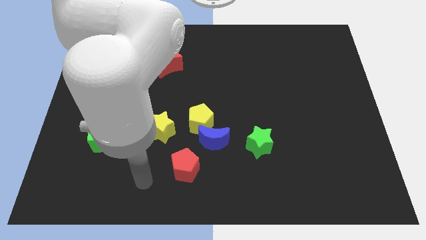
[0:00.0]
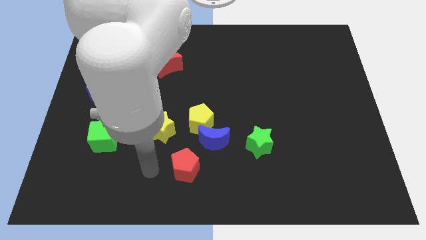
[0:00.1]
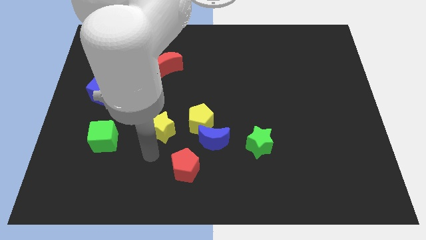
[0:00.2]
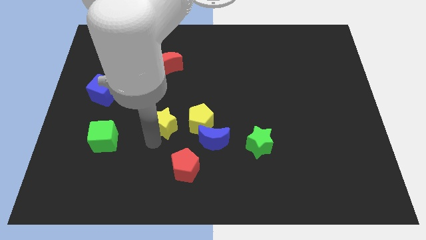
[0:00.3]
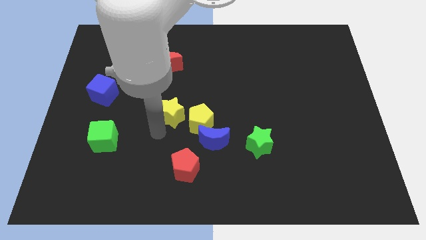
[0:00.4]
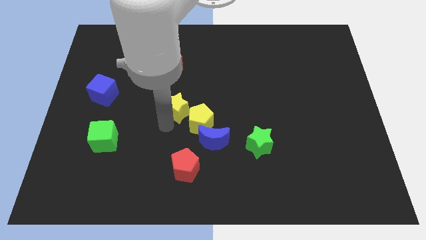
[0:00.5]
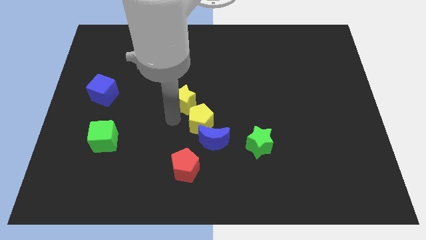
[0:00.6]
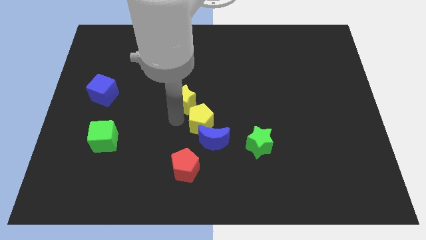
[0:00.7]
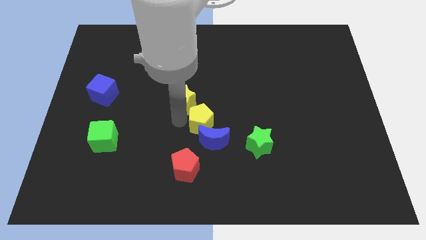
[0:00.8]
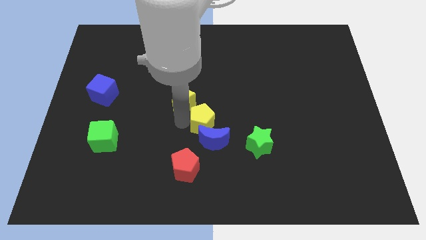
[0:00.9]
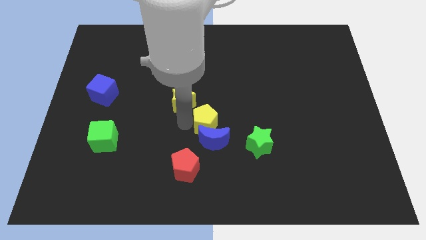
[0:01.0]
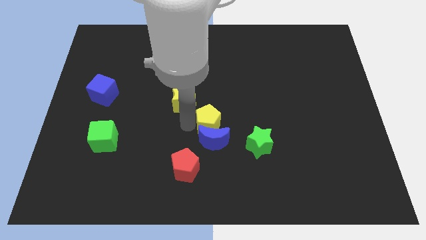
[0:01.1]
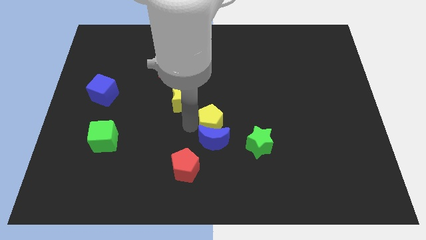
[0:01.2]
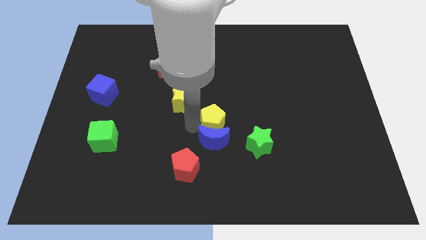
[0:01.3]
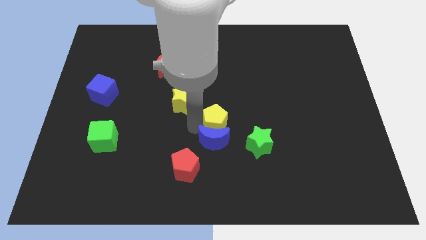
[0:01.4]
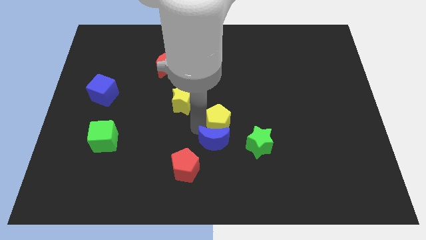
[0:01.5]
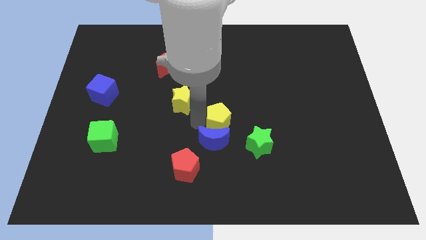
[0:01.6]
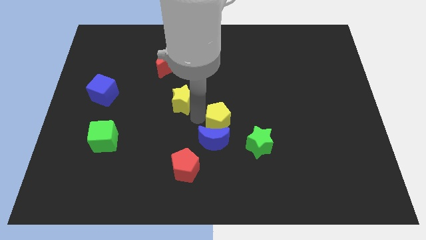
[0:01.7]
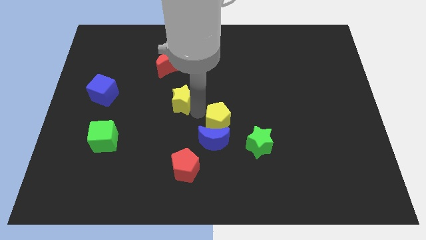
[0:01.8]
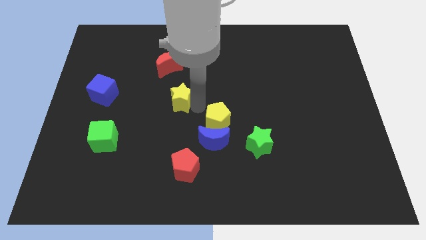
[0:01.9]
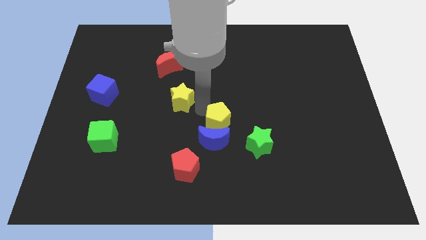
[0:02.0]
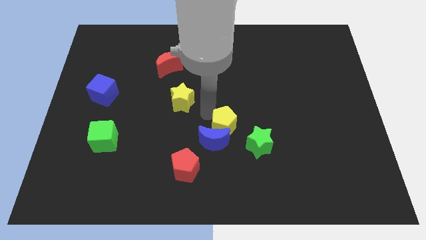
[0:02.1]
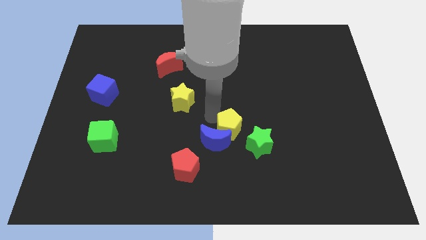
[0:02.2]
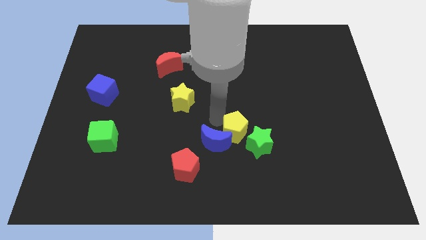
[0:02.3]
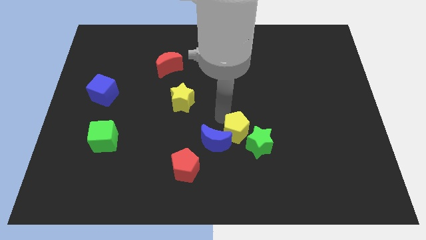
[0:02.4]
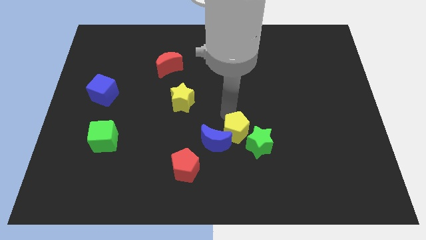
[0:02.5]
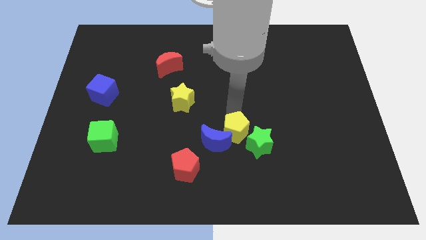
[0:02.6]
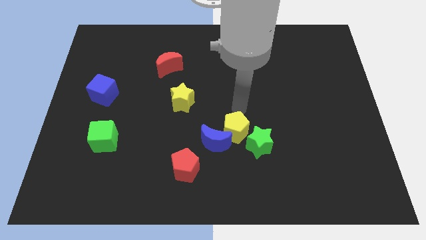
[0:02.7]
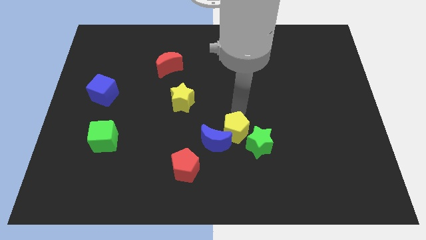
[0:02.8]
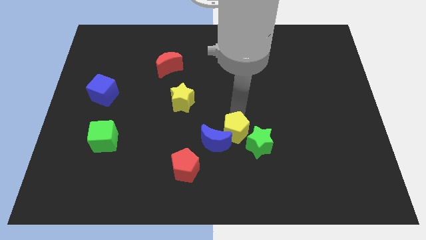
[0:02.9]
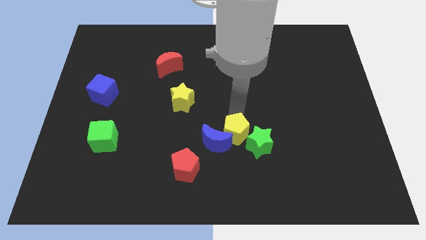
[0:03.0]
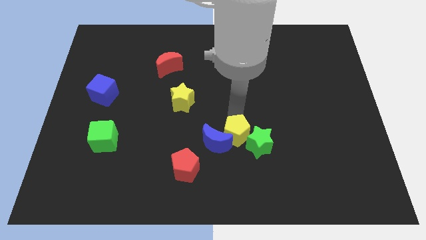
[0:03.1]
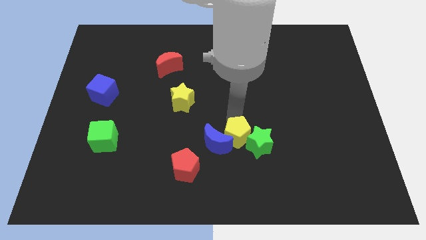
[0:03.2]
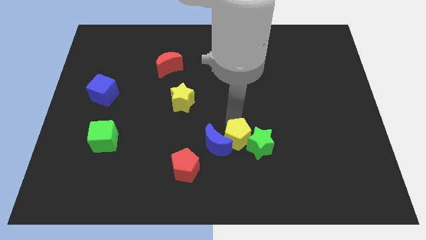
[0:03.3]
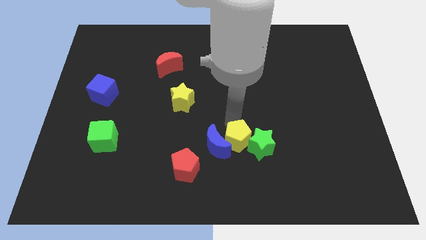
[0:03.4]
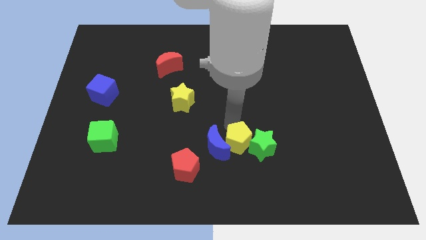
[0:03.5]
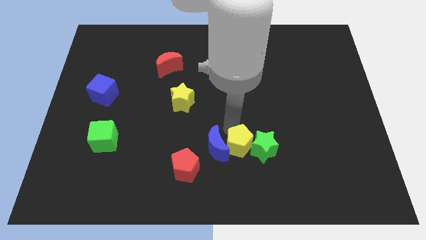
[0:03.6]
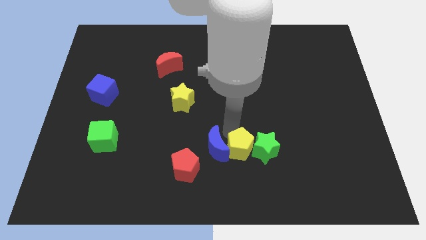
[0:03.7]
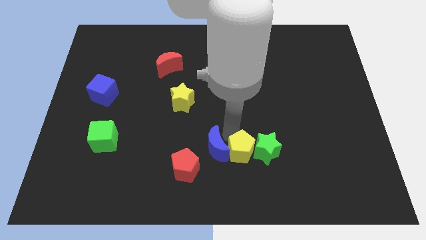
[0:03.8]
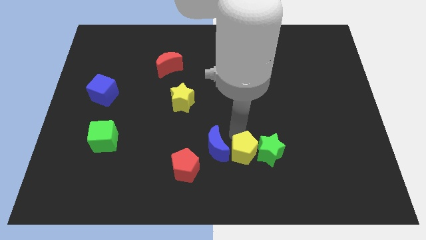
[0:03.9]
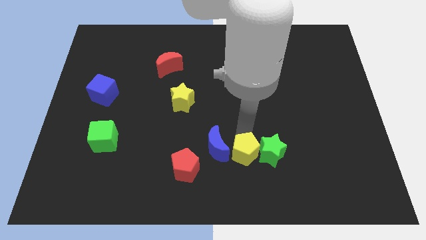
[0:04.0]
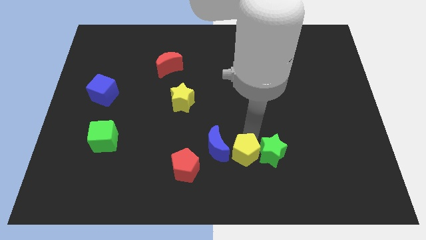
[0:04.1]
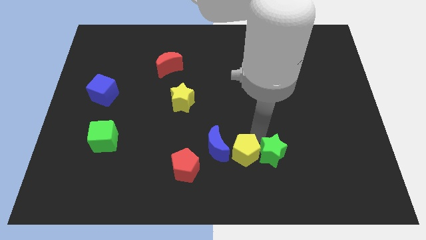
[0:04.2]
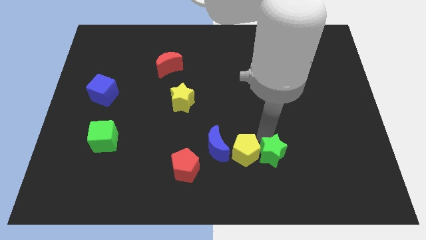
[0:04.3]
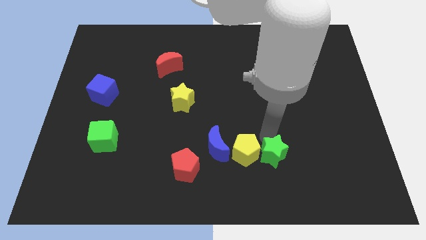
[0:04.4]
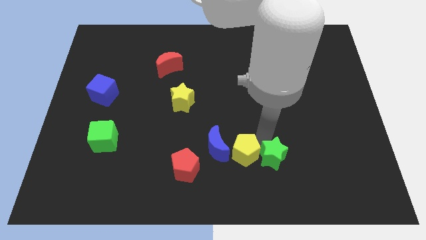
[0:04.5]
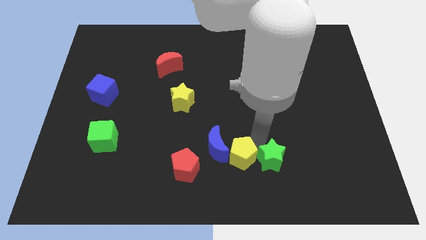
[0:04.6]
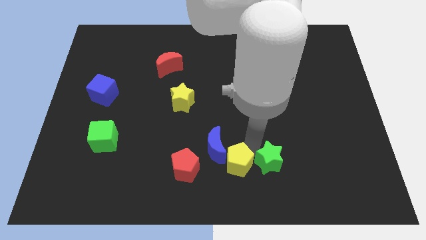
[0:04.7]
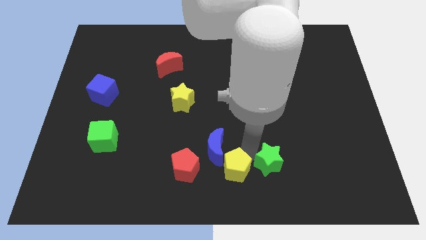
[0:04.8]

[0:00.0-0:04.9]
slide the yellow pentagon below the blue moon

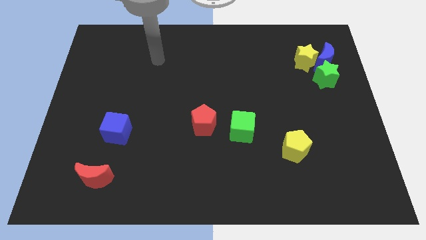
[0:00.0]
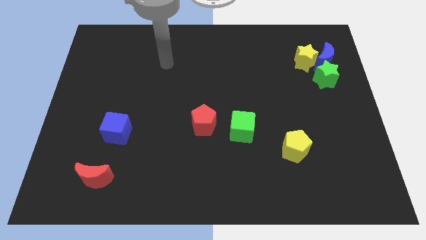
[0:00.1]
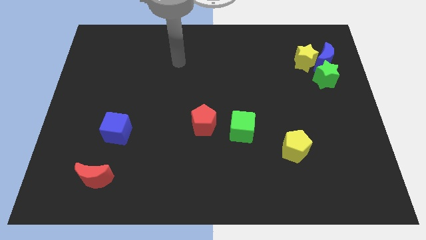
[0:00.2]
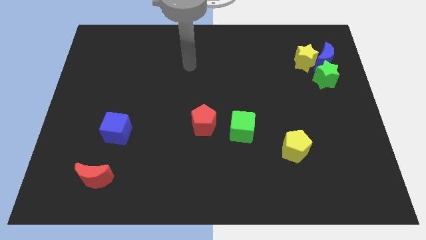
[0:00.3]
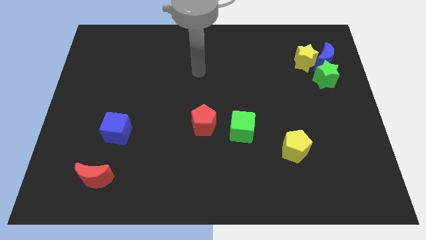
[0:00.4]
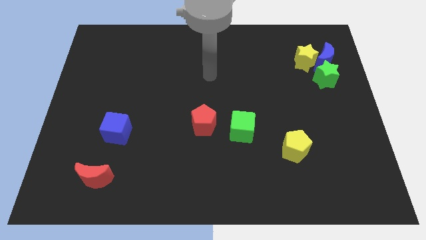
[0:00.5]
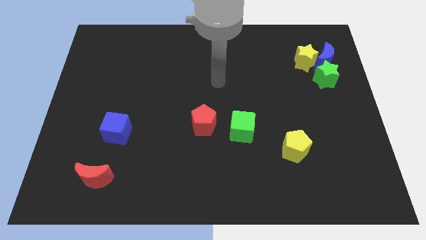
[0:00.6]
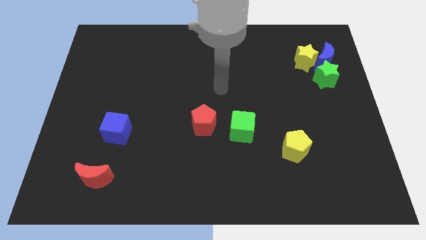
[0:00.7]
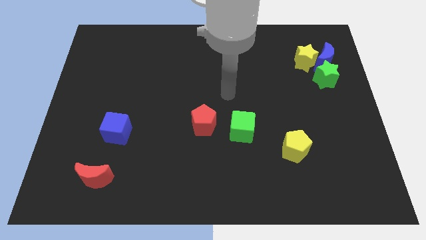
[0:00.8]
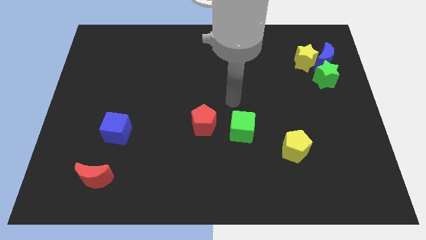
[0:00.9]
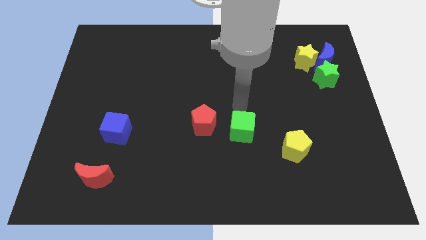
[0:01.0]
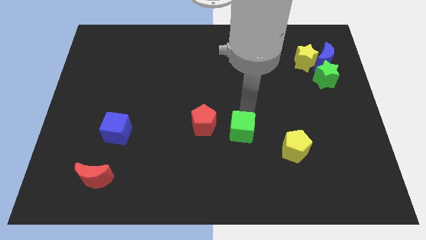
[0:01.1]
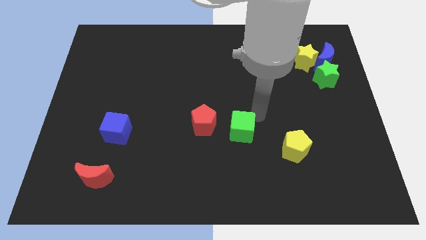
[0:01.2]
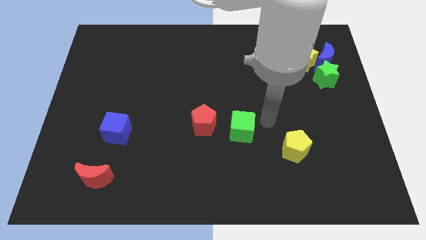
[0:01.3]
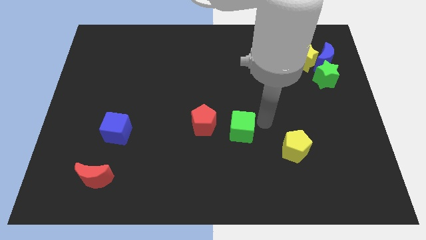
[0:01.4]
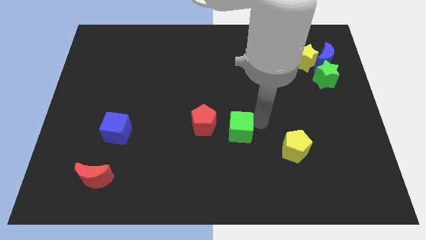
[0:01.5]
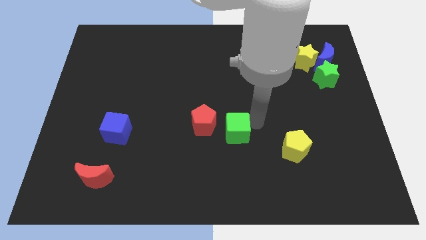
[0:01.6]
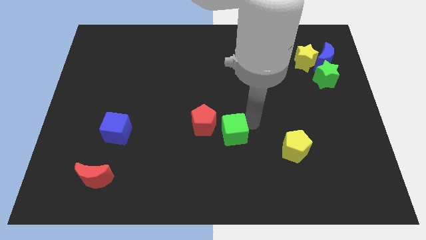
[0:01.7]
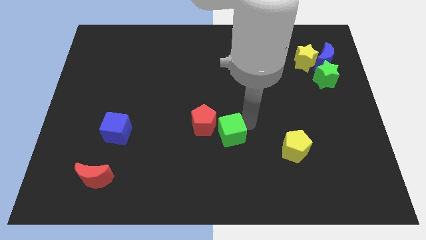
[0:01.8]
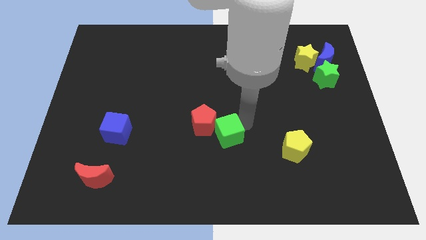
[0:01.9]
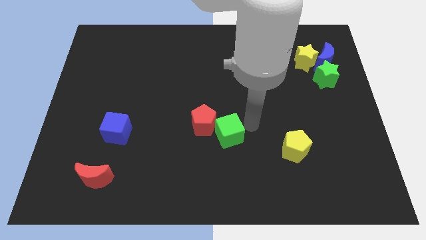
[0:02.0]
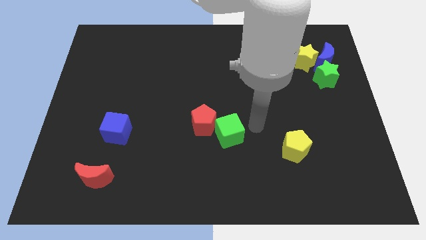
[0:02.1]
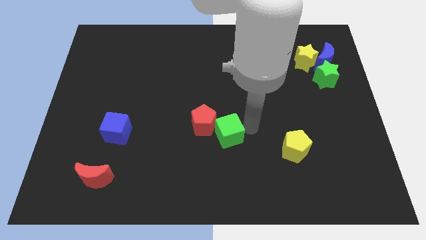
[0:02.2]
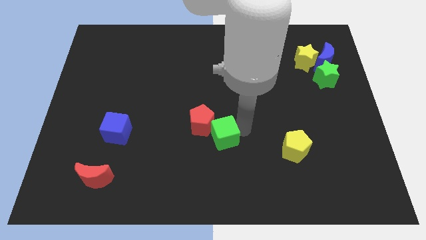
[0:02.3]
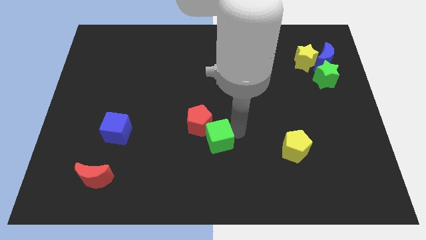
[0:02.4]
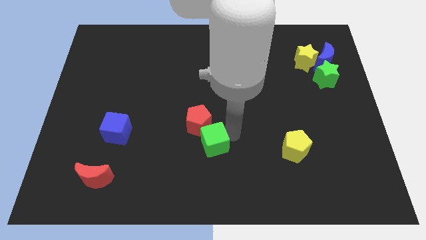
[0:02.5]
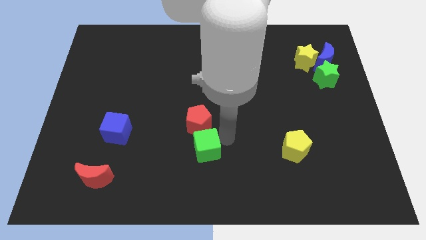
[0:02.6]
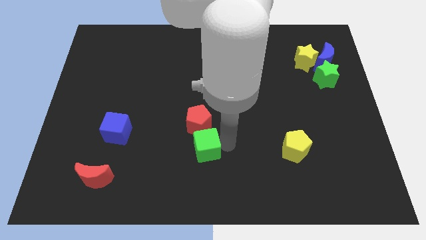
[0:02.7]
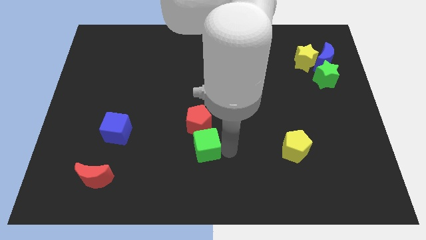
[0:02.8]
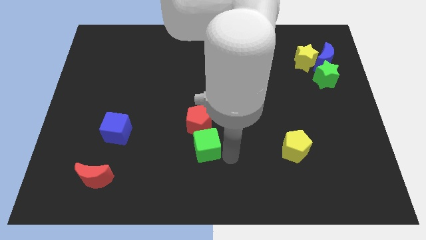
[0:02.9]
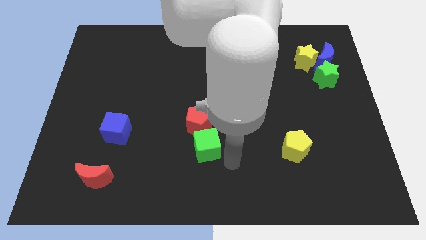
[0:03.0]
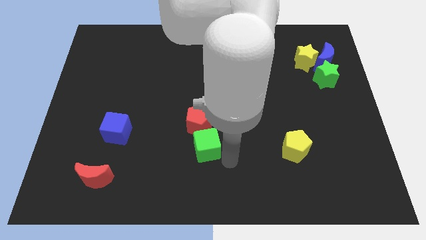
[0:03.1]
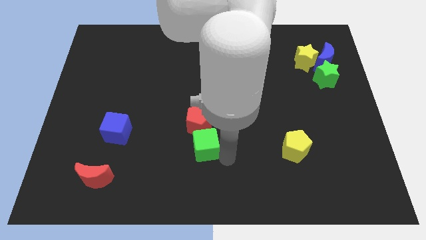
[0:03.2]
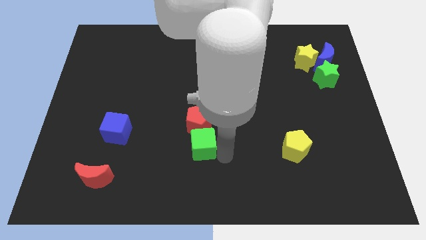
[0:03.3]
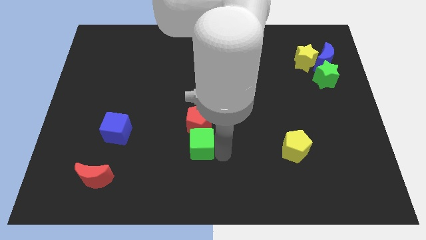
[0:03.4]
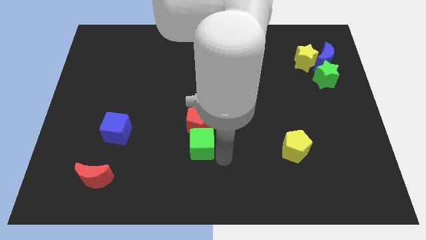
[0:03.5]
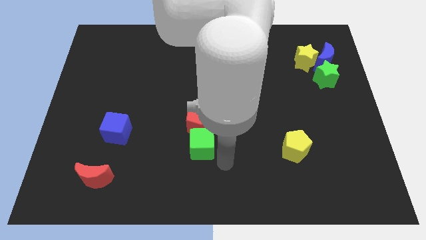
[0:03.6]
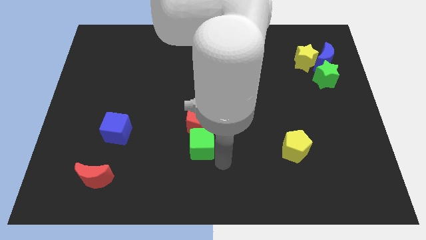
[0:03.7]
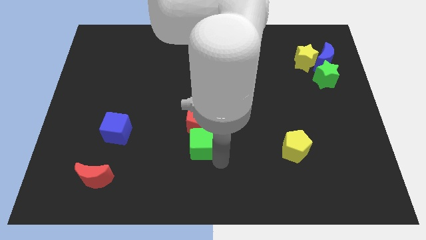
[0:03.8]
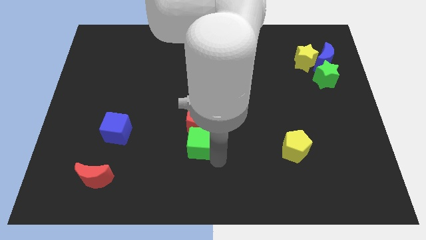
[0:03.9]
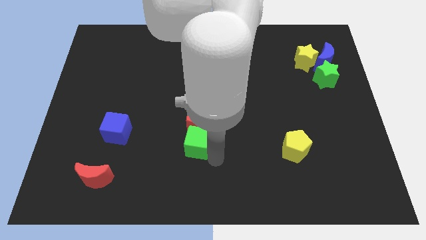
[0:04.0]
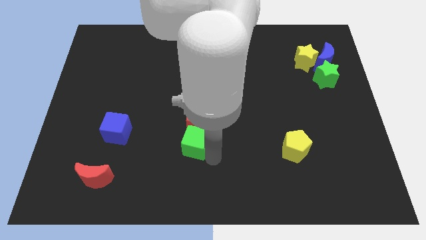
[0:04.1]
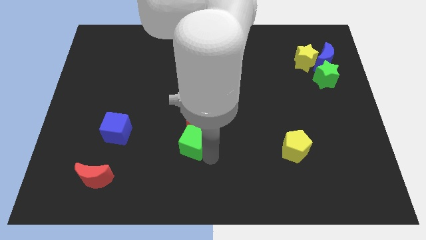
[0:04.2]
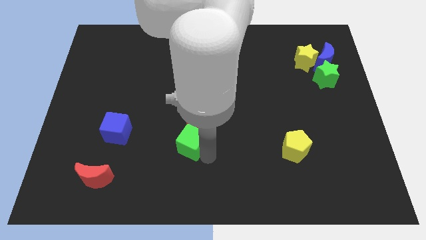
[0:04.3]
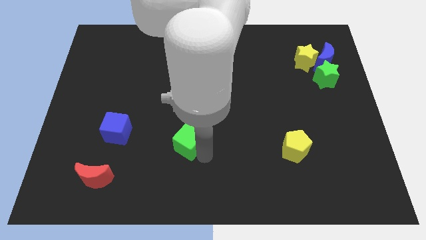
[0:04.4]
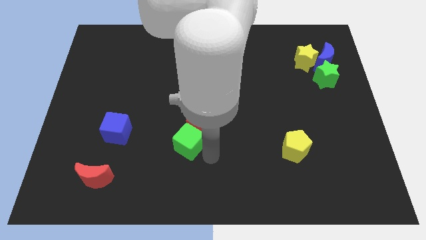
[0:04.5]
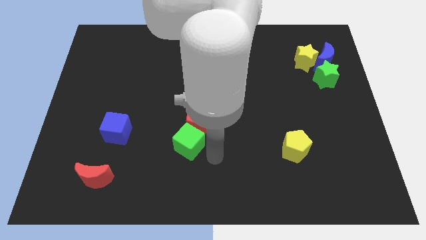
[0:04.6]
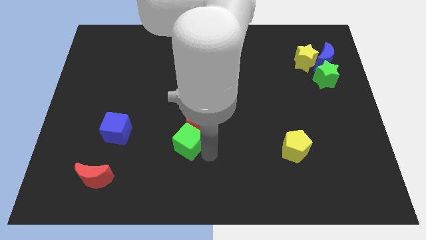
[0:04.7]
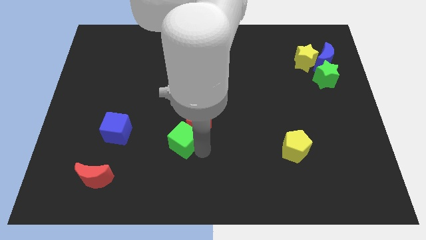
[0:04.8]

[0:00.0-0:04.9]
slide the green cube to the right of the blue cube
